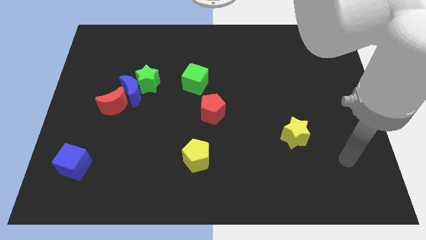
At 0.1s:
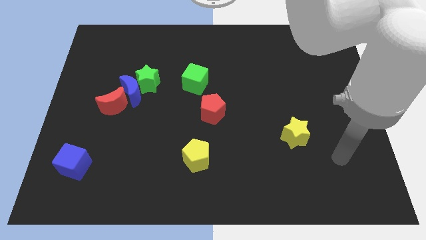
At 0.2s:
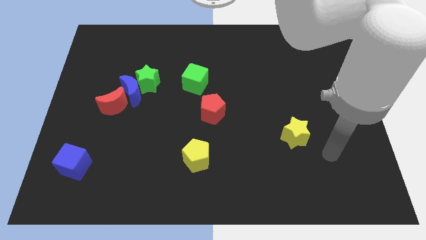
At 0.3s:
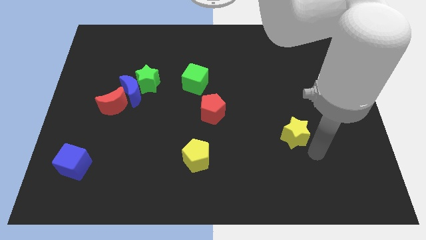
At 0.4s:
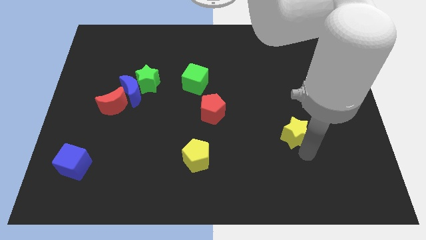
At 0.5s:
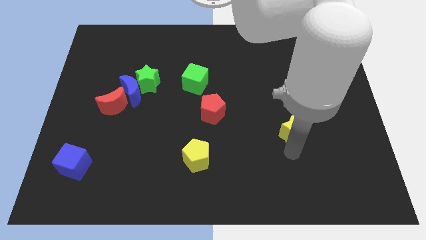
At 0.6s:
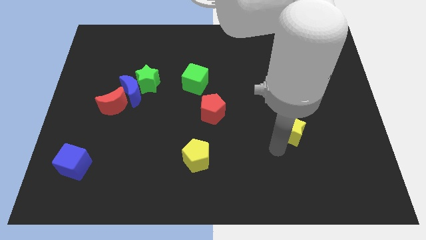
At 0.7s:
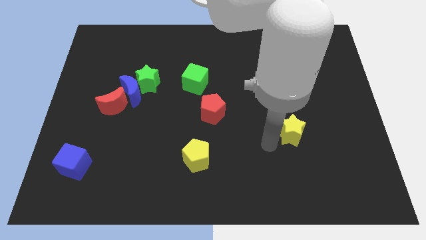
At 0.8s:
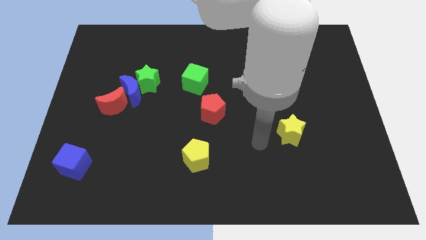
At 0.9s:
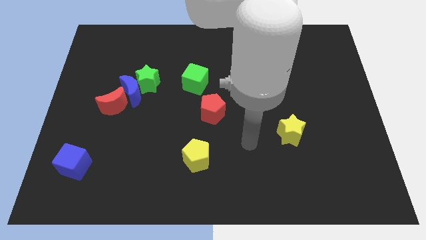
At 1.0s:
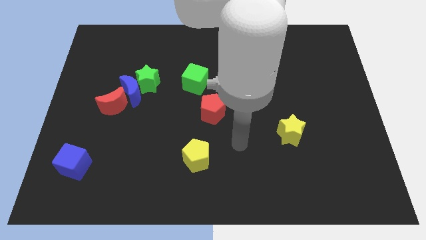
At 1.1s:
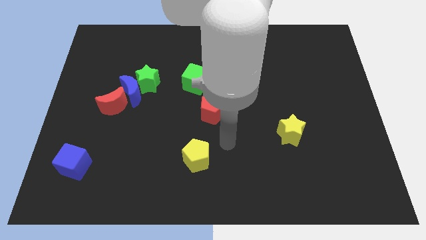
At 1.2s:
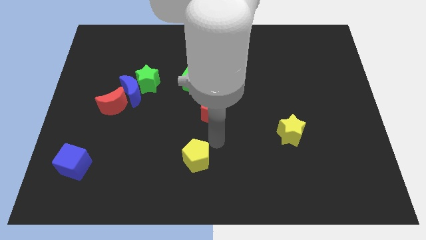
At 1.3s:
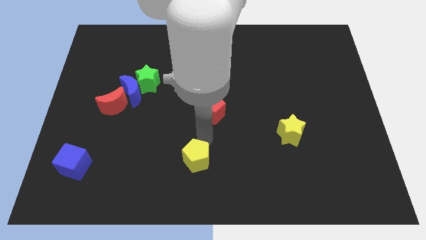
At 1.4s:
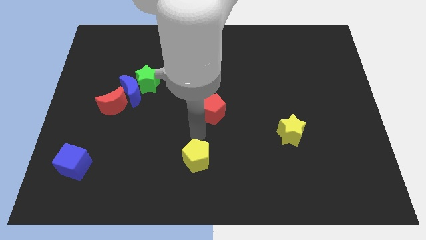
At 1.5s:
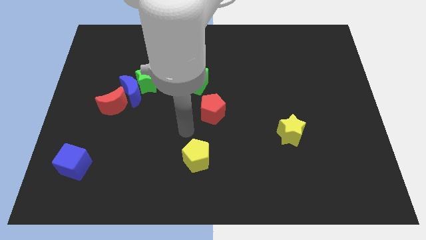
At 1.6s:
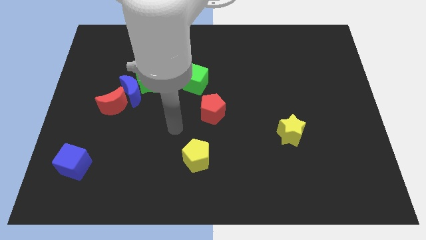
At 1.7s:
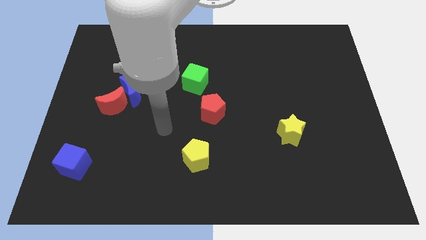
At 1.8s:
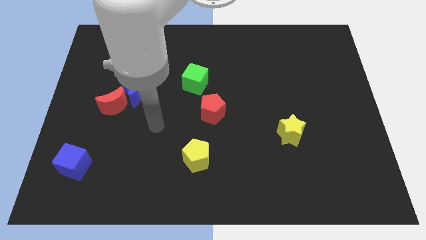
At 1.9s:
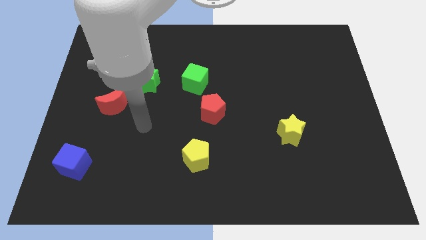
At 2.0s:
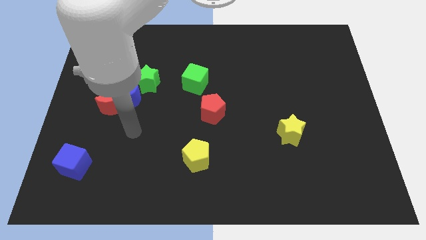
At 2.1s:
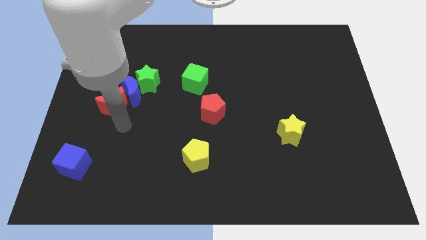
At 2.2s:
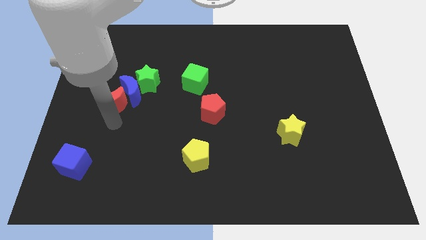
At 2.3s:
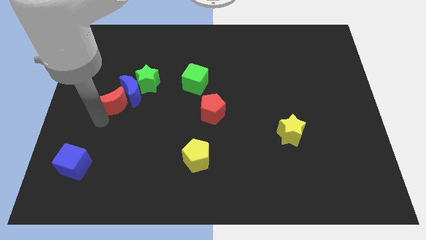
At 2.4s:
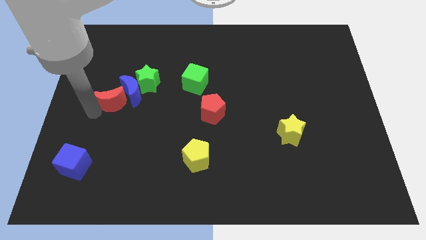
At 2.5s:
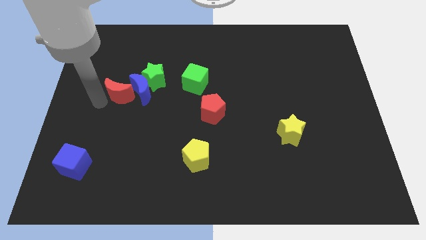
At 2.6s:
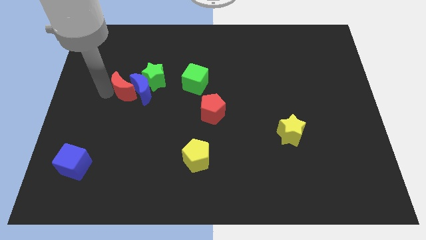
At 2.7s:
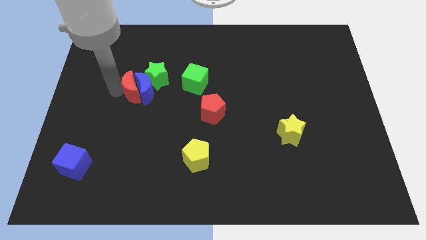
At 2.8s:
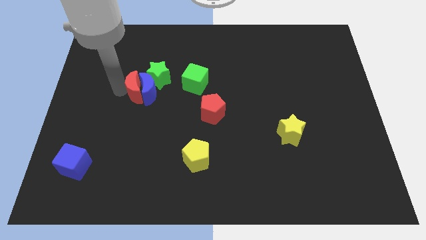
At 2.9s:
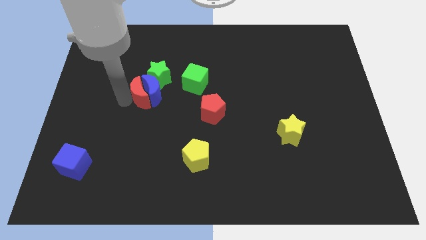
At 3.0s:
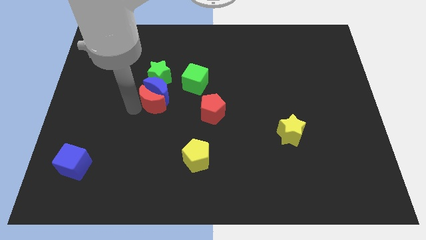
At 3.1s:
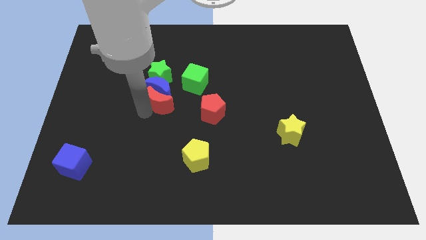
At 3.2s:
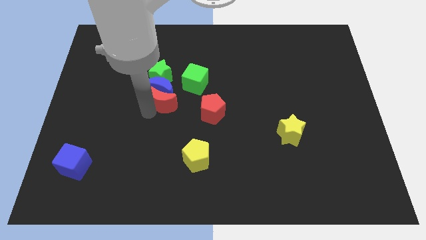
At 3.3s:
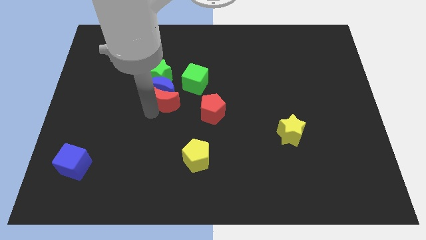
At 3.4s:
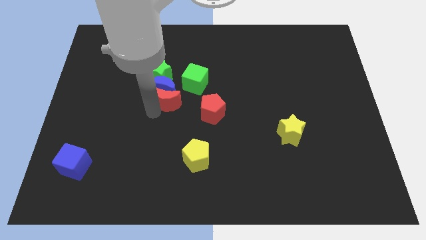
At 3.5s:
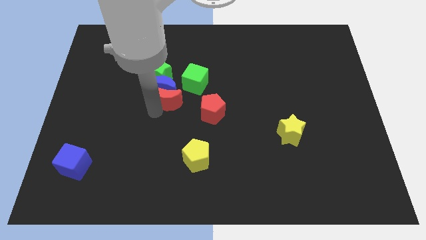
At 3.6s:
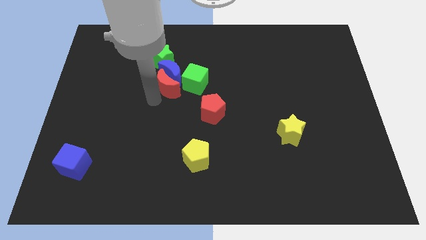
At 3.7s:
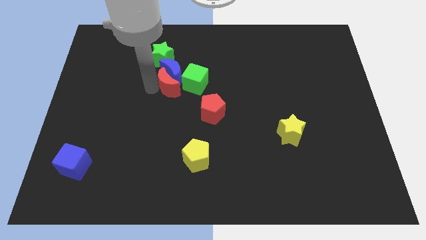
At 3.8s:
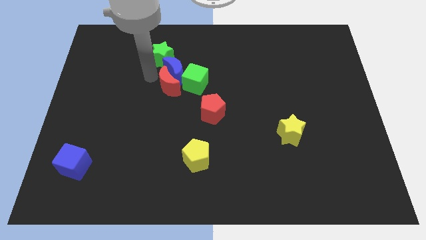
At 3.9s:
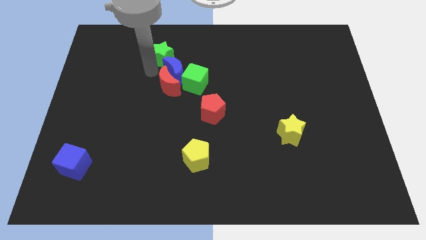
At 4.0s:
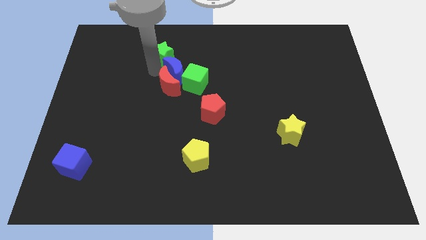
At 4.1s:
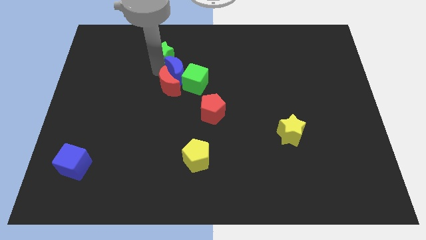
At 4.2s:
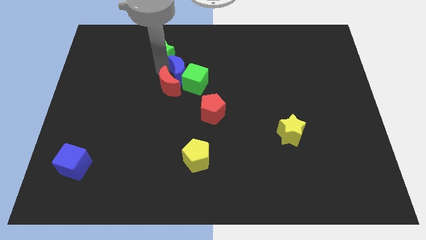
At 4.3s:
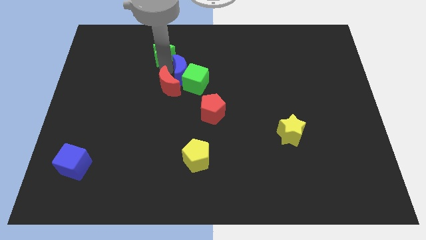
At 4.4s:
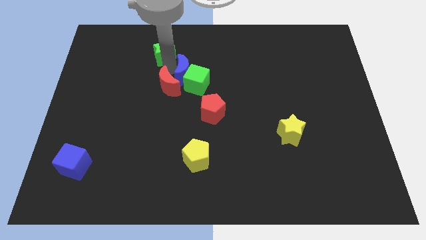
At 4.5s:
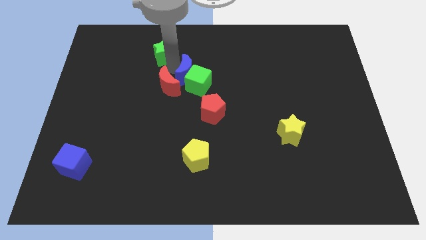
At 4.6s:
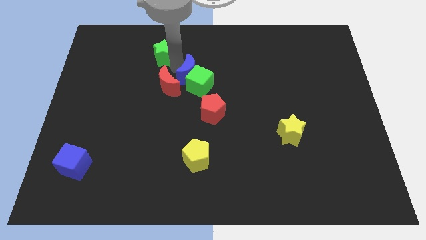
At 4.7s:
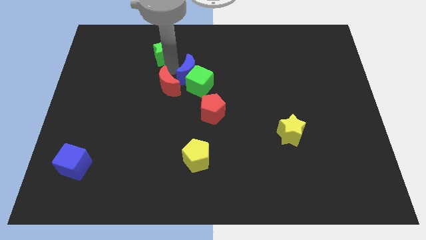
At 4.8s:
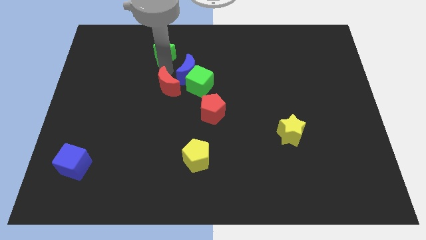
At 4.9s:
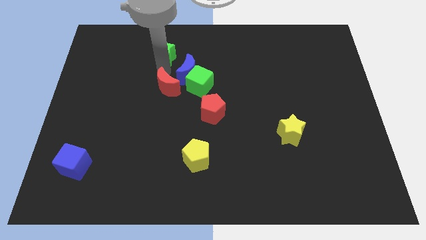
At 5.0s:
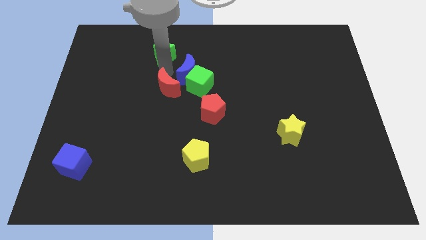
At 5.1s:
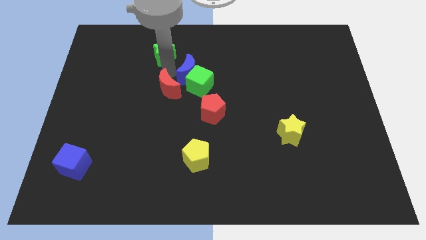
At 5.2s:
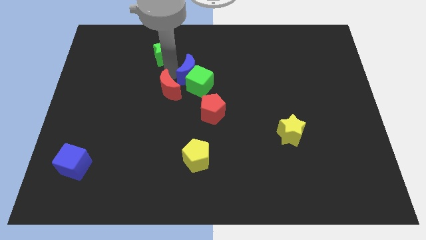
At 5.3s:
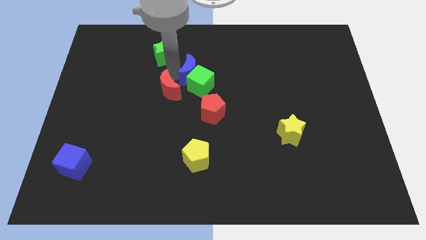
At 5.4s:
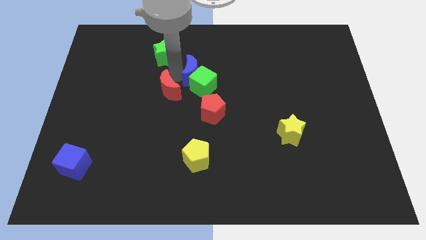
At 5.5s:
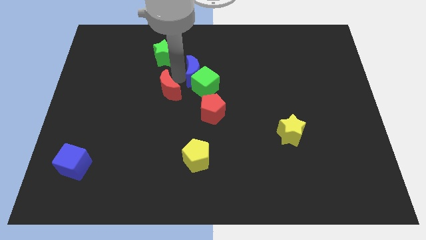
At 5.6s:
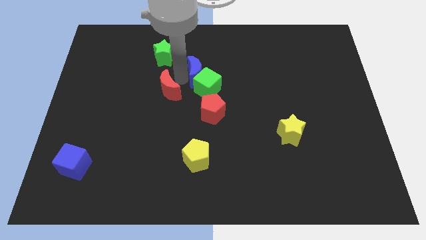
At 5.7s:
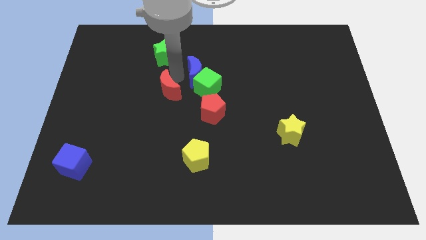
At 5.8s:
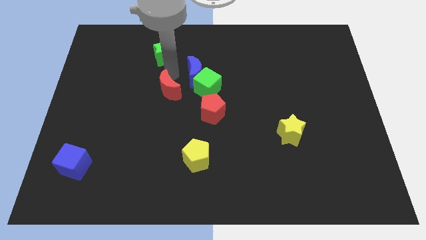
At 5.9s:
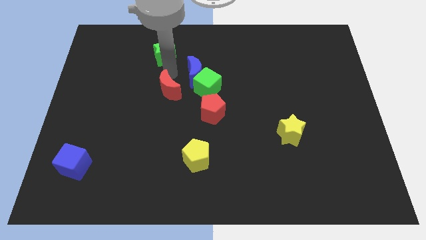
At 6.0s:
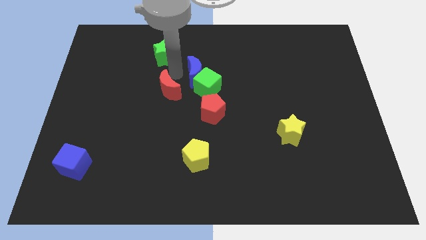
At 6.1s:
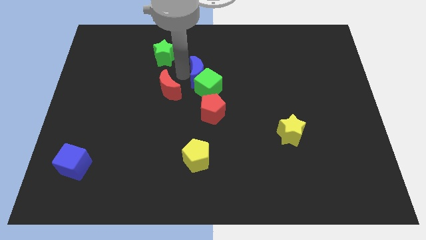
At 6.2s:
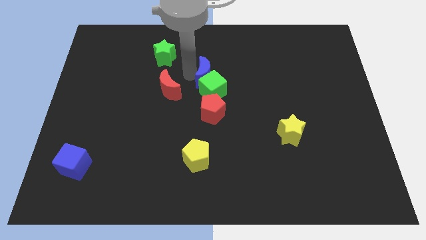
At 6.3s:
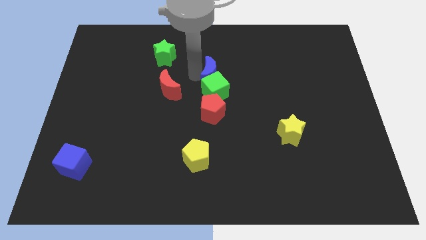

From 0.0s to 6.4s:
pull the blue moon apart from the green star and red moon

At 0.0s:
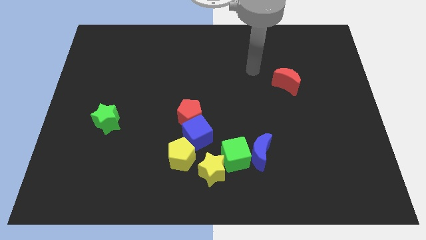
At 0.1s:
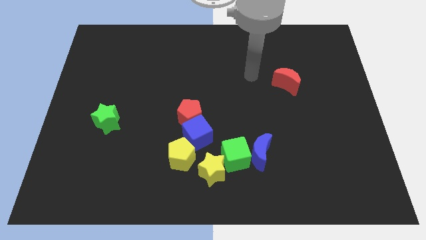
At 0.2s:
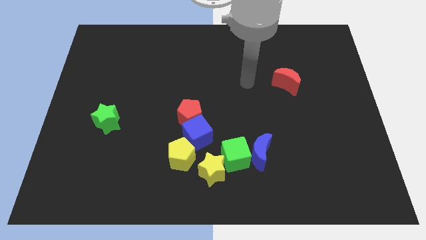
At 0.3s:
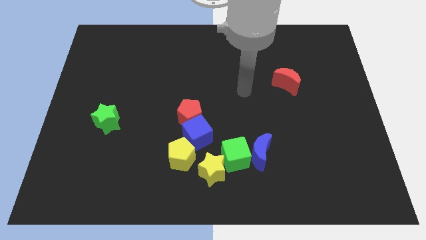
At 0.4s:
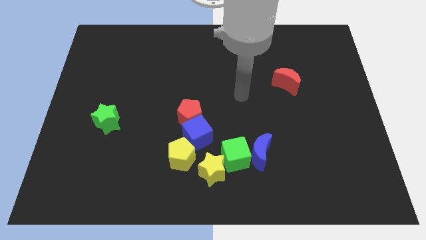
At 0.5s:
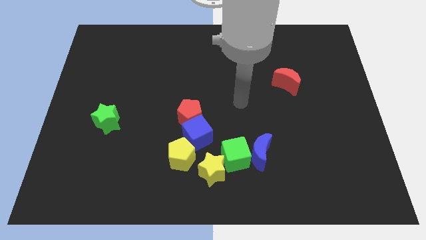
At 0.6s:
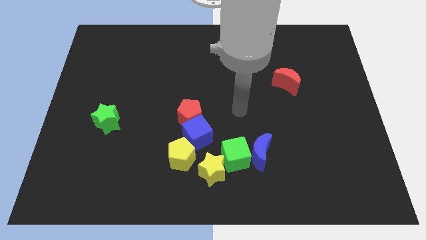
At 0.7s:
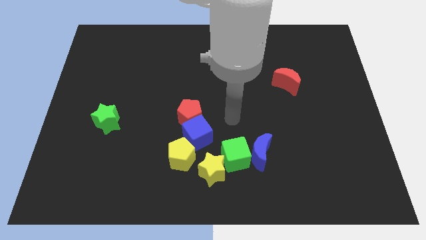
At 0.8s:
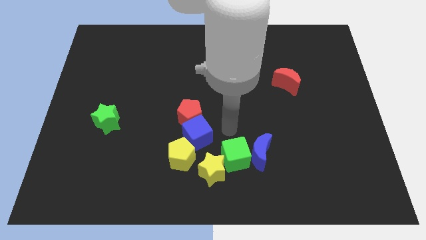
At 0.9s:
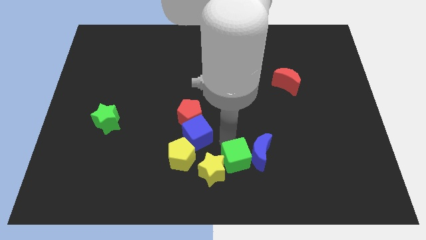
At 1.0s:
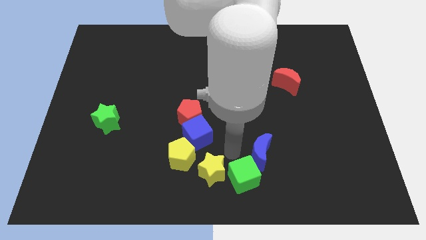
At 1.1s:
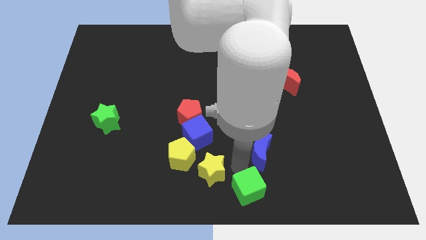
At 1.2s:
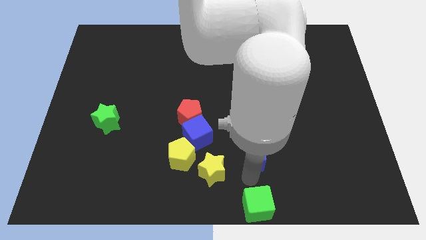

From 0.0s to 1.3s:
move the blue moon away from the green cube

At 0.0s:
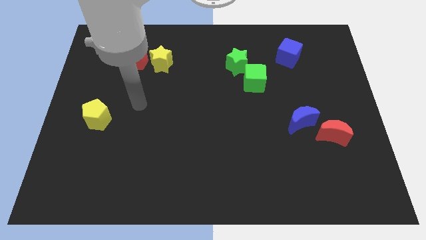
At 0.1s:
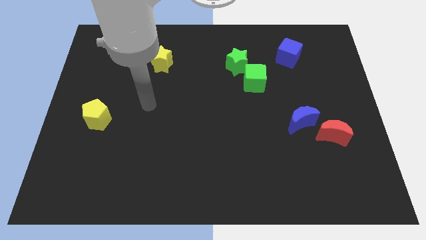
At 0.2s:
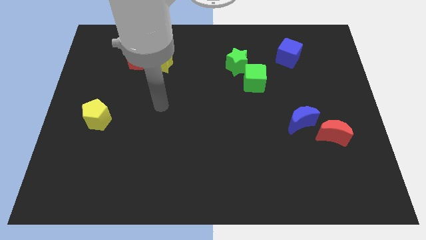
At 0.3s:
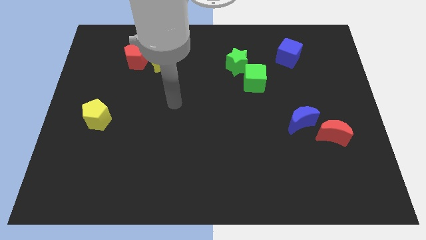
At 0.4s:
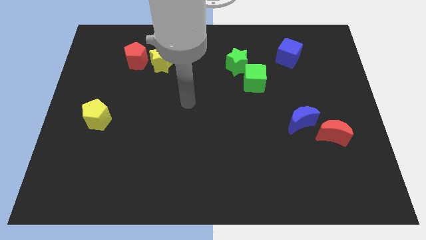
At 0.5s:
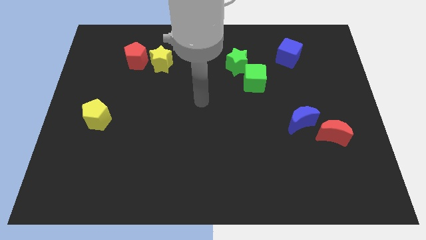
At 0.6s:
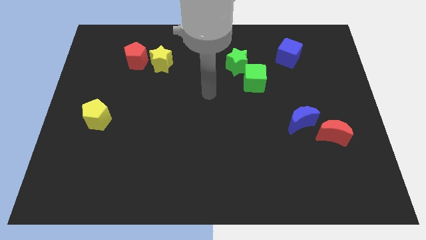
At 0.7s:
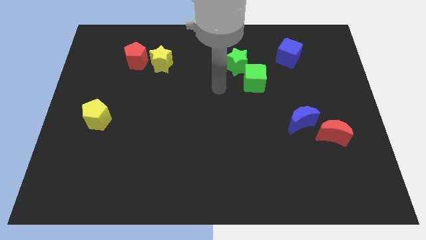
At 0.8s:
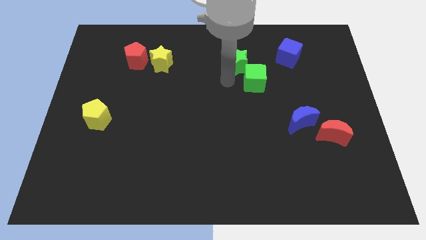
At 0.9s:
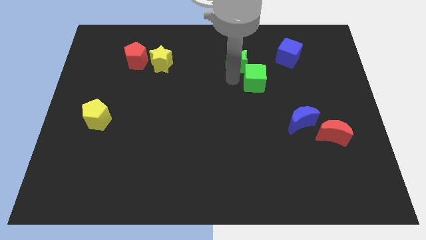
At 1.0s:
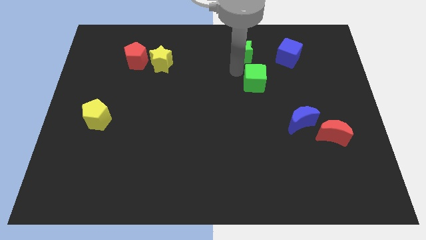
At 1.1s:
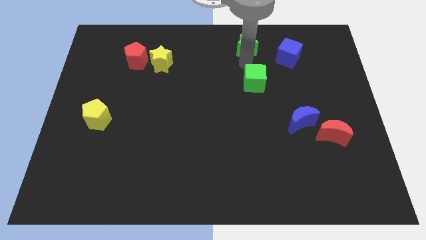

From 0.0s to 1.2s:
move the green cube away from the green star

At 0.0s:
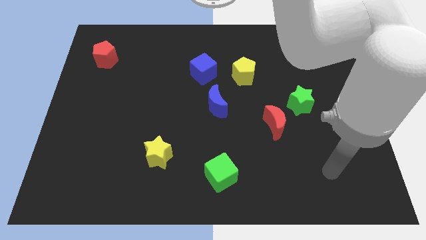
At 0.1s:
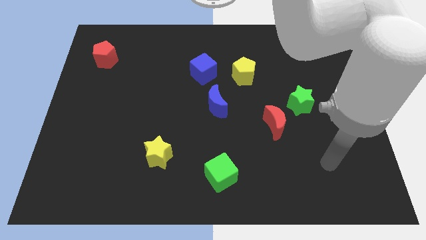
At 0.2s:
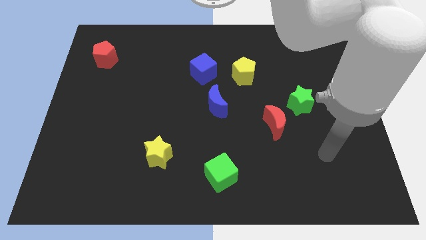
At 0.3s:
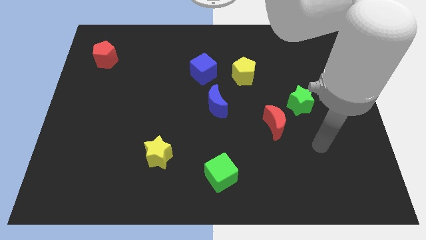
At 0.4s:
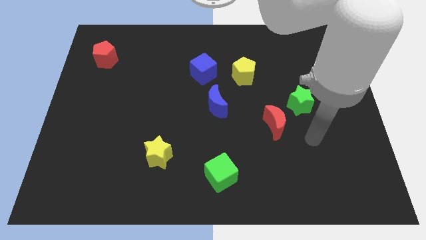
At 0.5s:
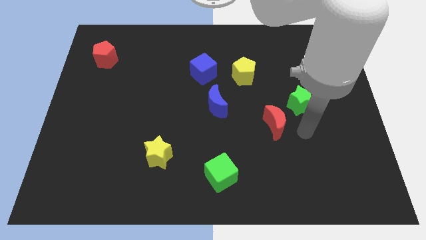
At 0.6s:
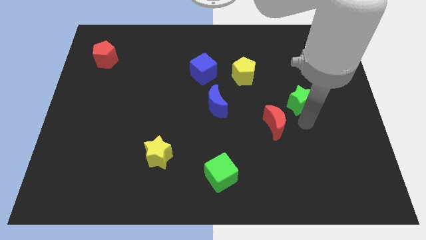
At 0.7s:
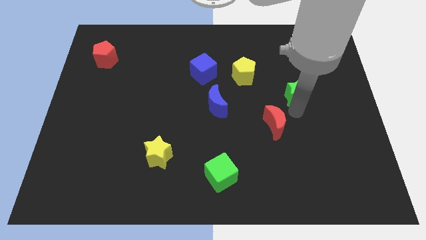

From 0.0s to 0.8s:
separate the red moon from the green star
